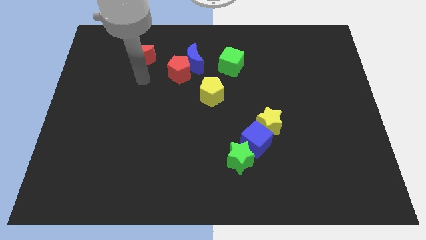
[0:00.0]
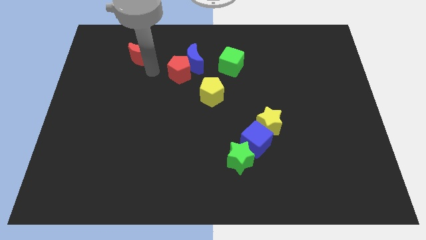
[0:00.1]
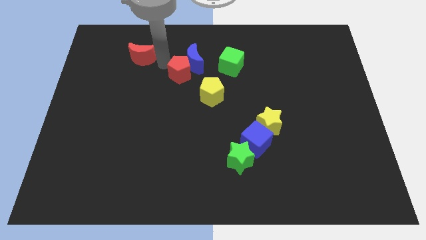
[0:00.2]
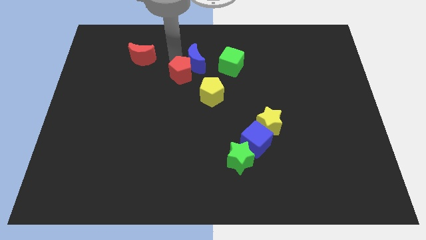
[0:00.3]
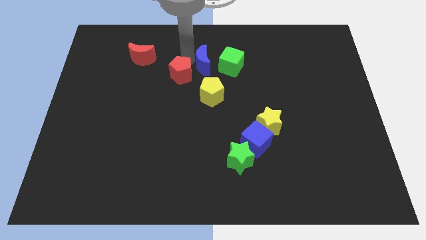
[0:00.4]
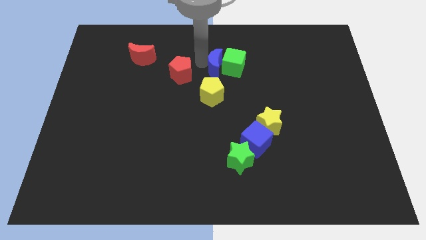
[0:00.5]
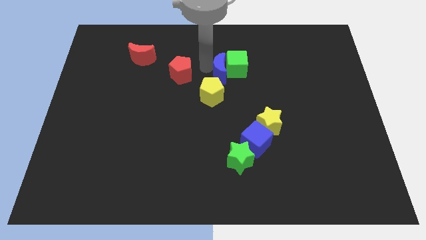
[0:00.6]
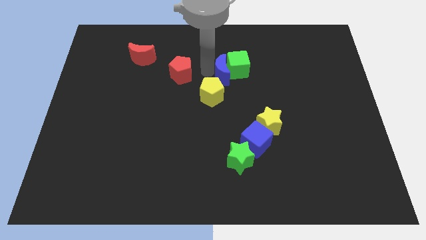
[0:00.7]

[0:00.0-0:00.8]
move the red pentagon away from the blue moon

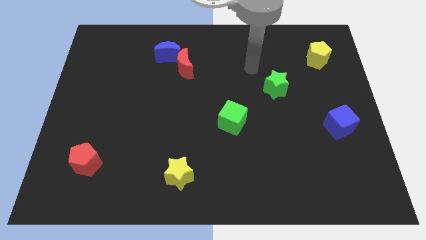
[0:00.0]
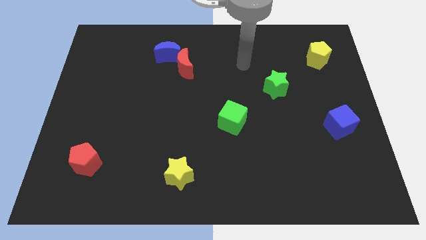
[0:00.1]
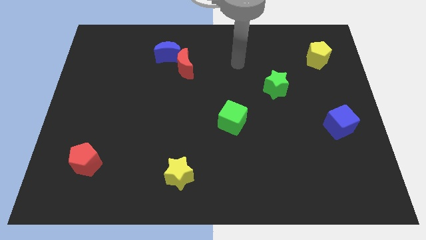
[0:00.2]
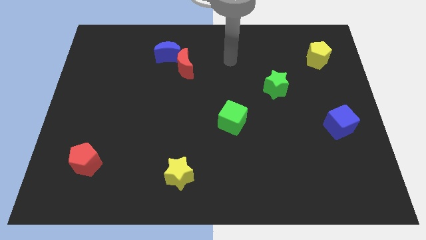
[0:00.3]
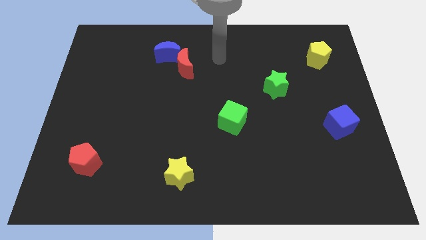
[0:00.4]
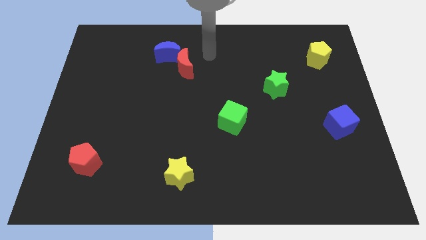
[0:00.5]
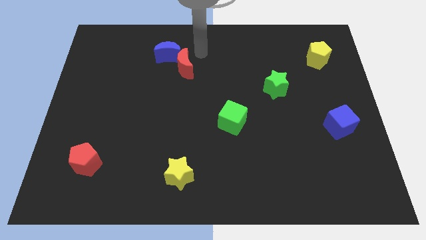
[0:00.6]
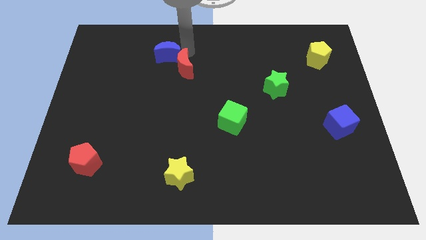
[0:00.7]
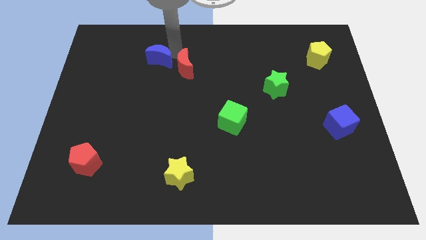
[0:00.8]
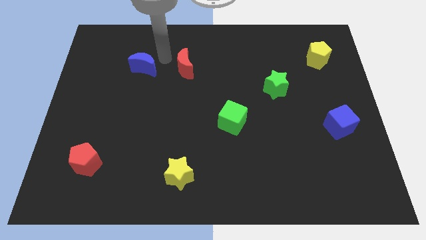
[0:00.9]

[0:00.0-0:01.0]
move the red moon away from the blue moon

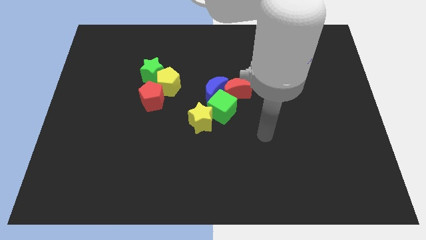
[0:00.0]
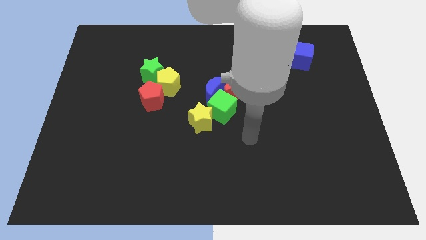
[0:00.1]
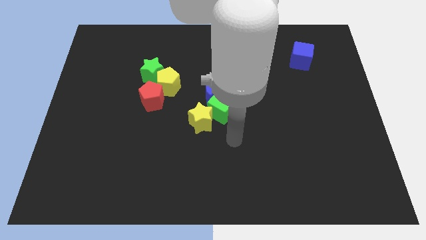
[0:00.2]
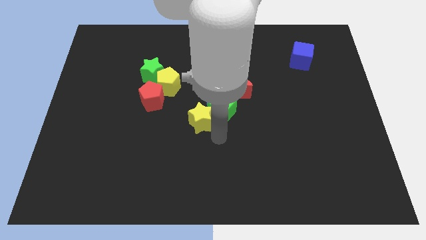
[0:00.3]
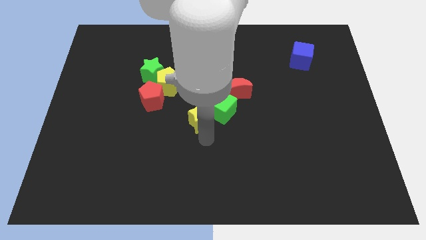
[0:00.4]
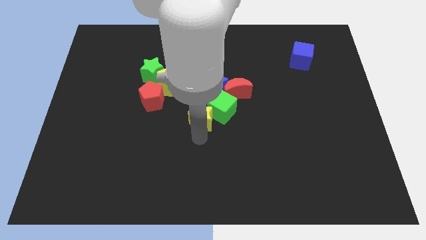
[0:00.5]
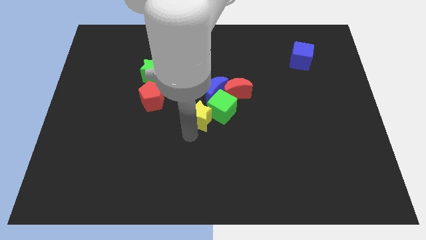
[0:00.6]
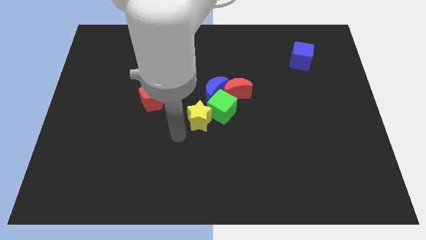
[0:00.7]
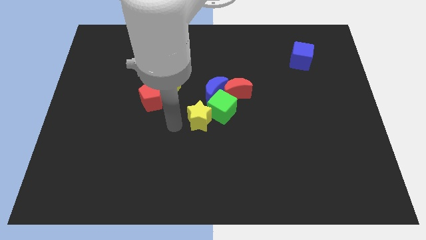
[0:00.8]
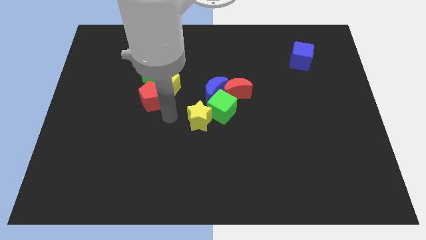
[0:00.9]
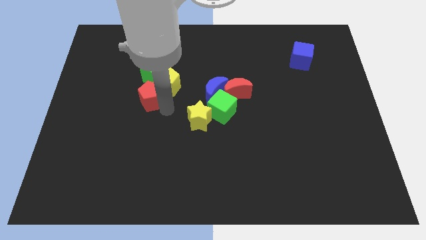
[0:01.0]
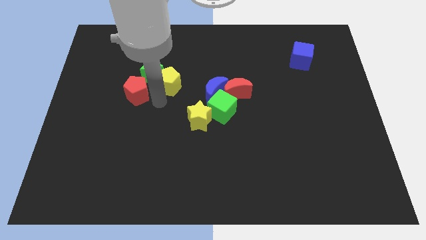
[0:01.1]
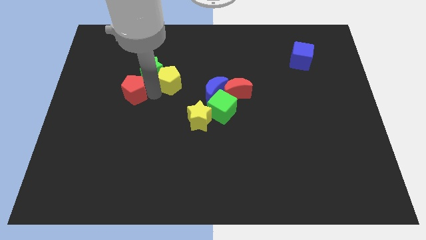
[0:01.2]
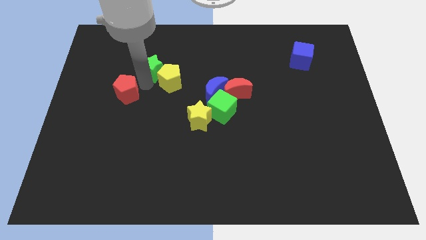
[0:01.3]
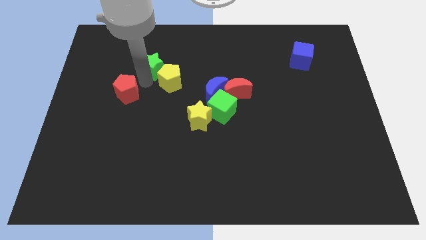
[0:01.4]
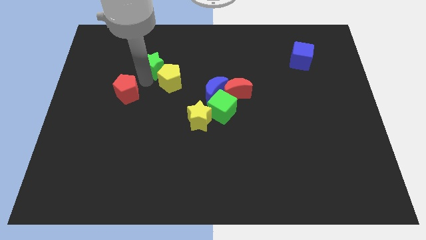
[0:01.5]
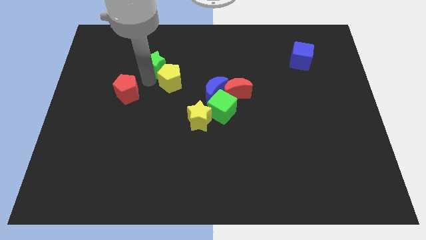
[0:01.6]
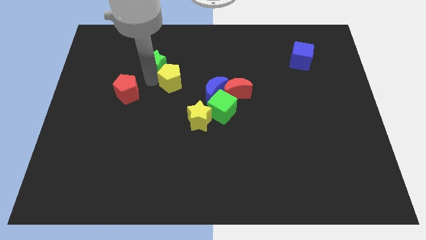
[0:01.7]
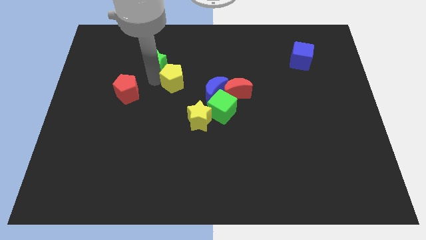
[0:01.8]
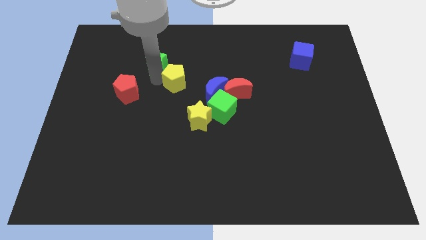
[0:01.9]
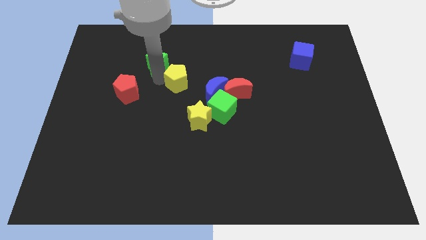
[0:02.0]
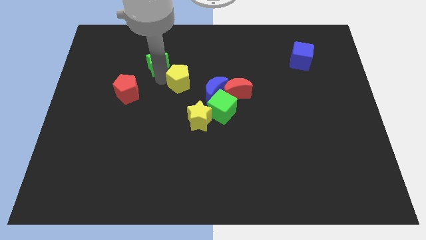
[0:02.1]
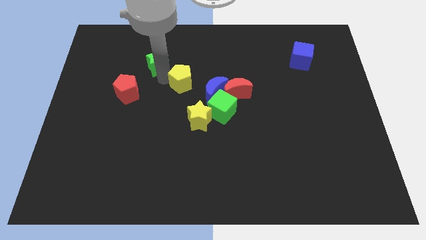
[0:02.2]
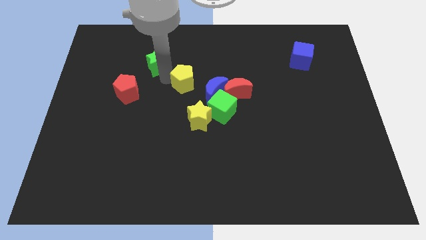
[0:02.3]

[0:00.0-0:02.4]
separate the yellow pentagon from the red pentagon and green star

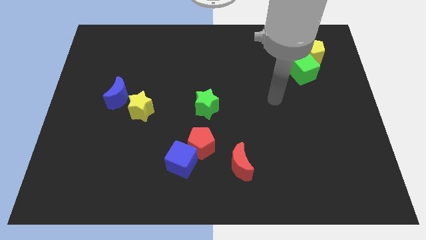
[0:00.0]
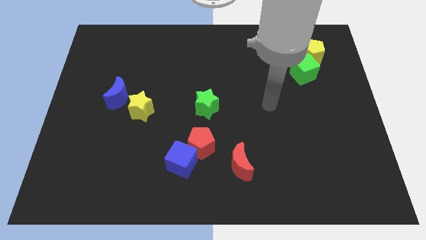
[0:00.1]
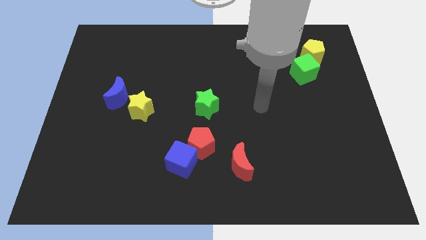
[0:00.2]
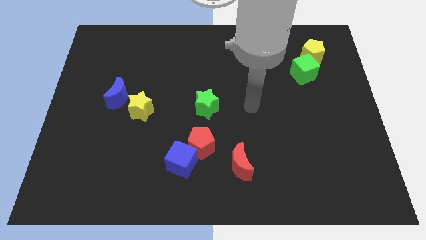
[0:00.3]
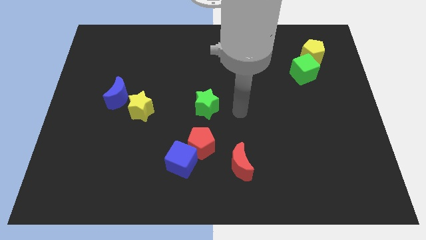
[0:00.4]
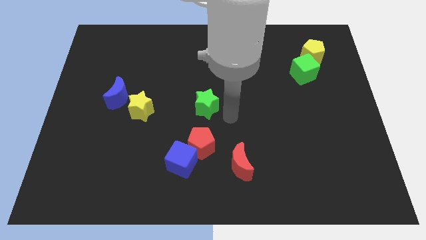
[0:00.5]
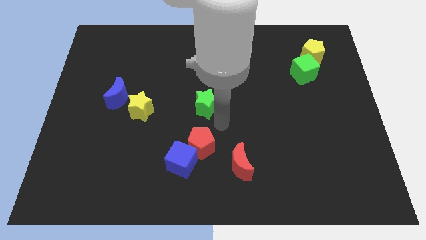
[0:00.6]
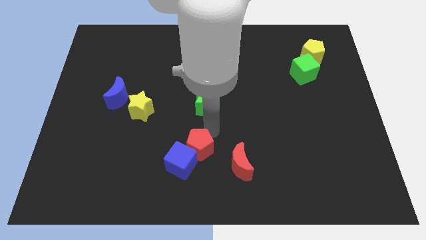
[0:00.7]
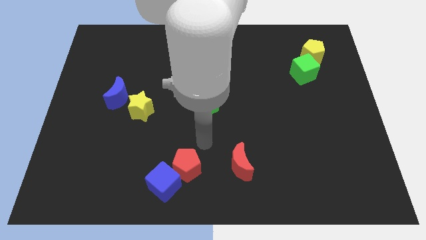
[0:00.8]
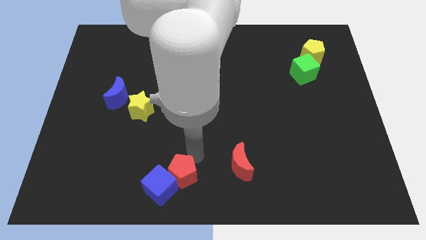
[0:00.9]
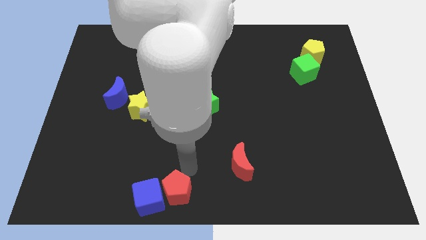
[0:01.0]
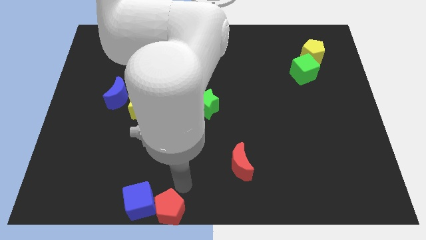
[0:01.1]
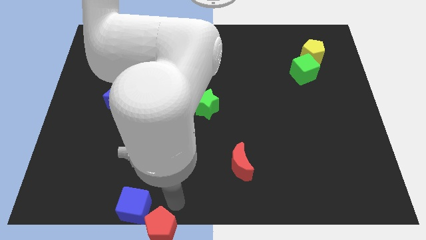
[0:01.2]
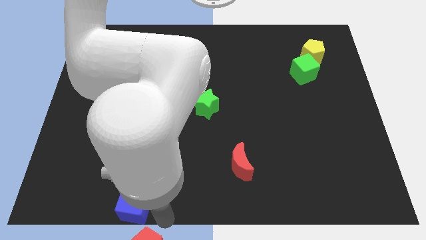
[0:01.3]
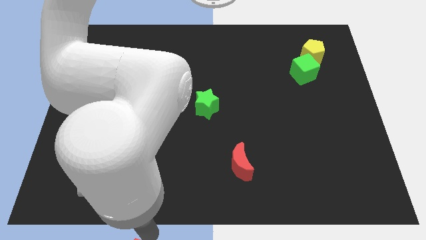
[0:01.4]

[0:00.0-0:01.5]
pull the blue cube apart from the red pentagon

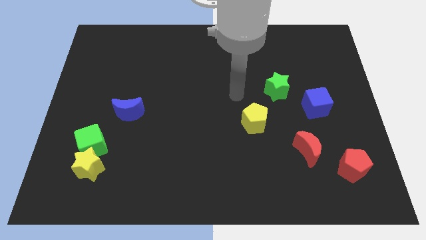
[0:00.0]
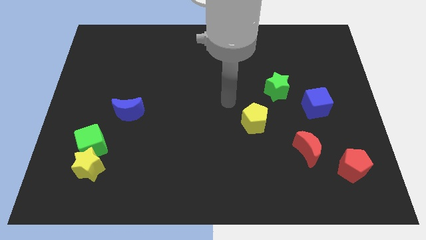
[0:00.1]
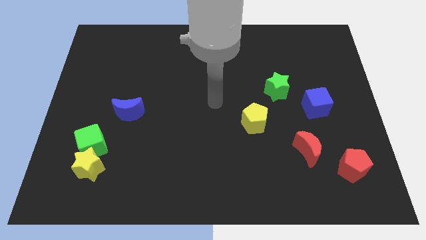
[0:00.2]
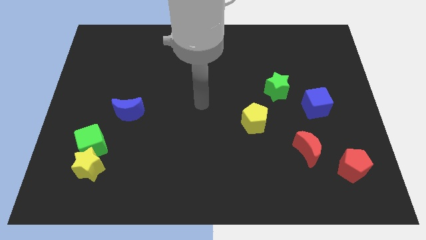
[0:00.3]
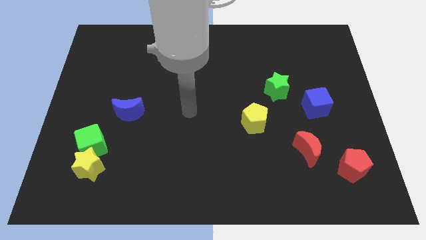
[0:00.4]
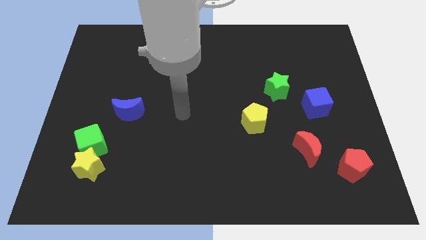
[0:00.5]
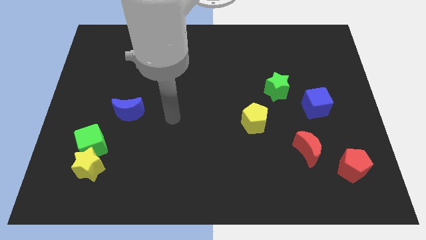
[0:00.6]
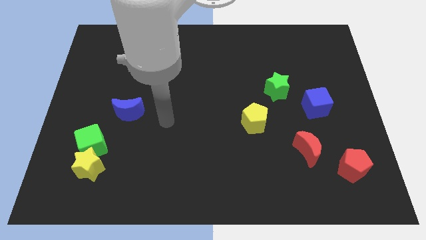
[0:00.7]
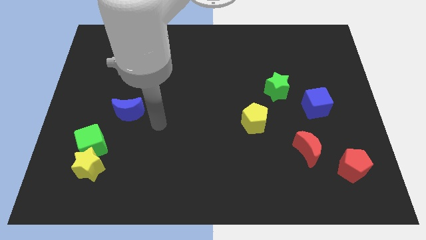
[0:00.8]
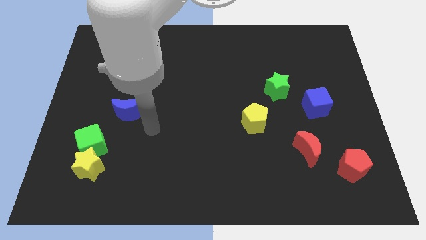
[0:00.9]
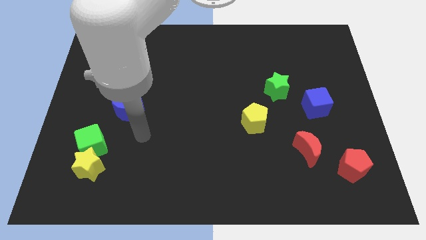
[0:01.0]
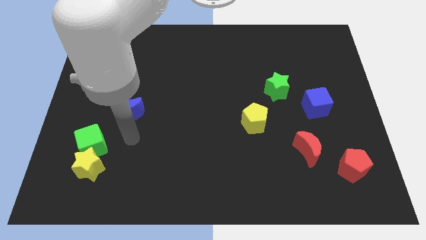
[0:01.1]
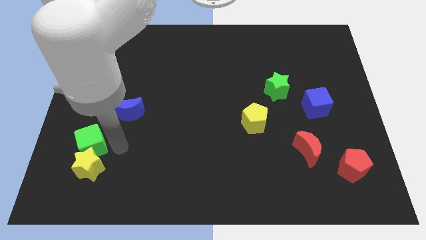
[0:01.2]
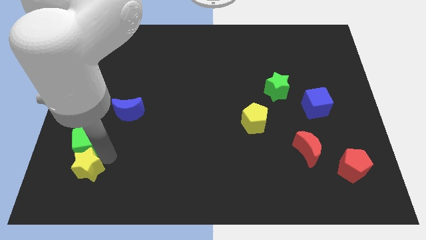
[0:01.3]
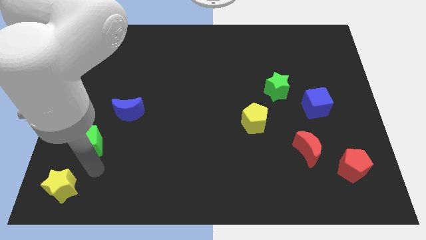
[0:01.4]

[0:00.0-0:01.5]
separate the green cube from the yellow star

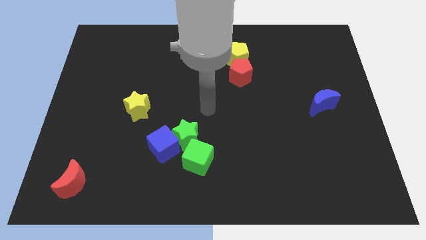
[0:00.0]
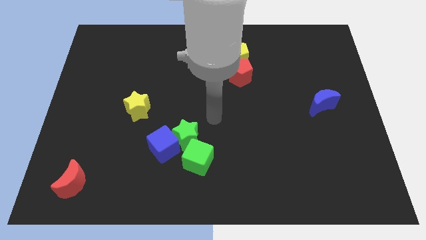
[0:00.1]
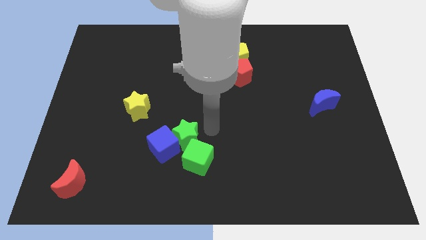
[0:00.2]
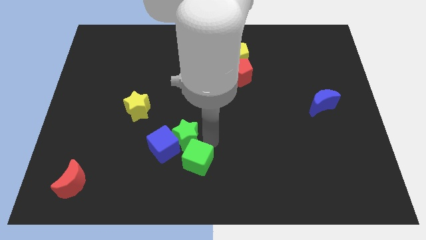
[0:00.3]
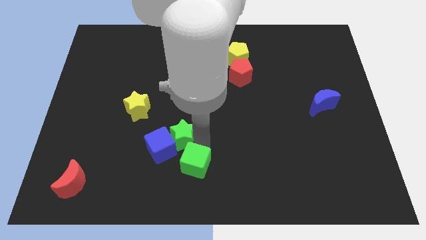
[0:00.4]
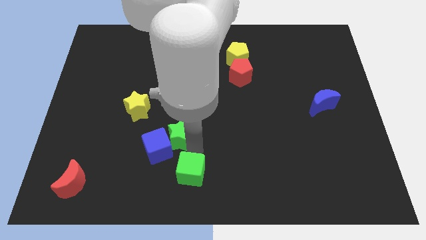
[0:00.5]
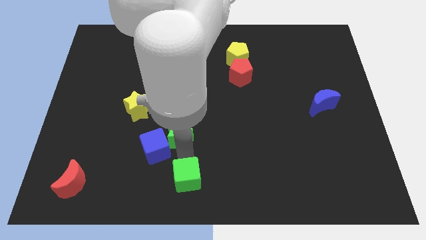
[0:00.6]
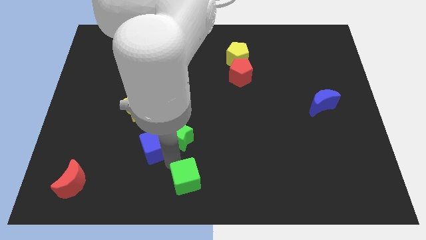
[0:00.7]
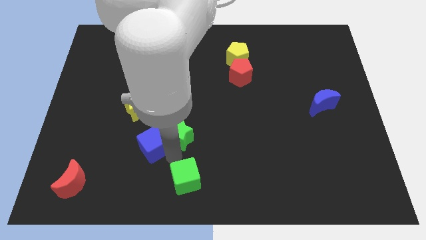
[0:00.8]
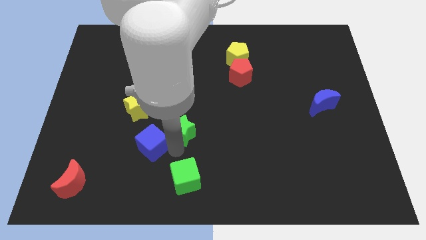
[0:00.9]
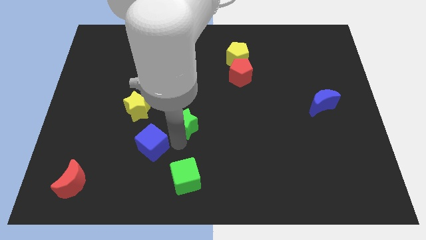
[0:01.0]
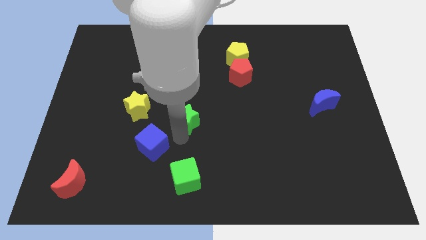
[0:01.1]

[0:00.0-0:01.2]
pull the green star apart from the blue cube and green cube

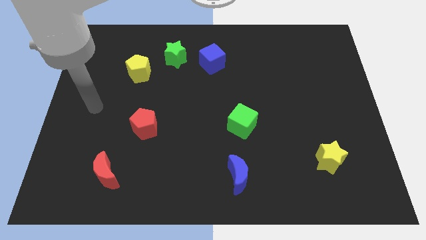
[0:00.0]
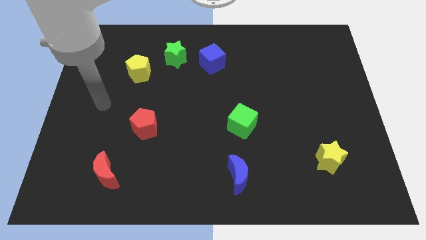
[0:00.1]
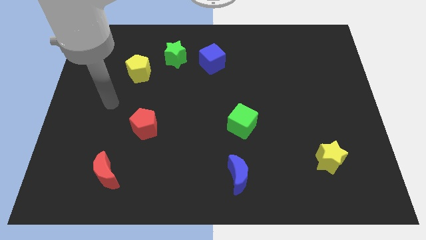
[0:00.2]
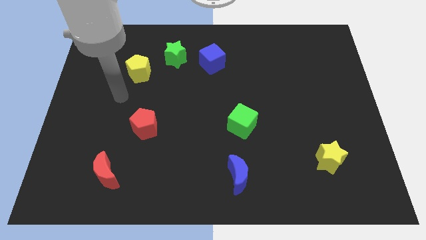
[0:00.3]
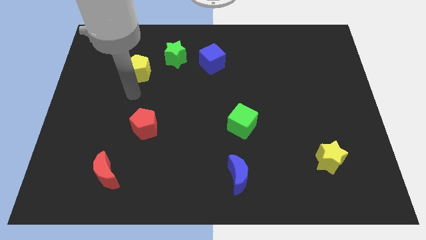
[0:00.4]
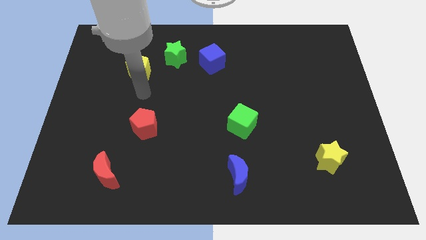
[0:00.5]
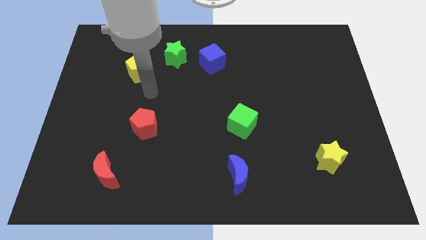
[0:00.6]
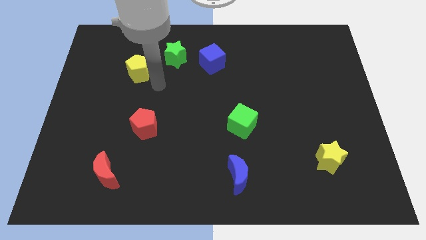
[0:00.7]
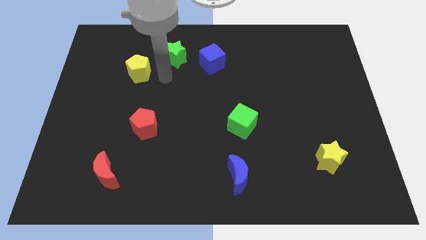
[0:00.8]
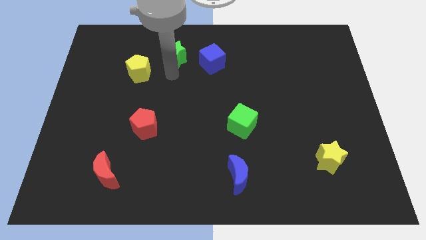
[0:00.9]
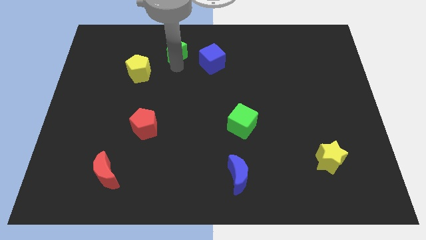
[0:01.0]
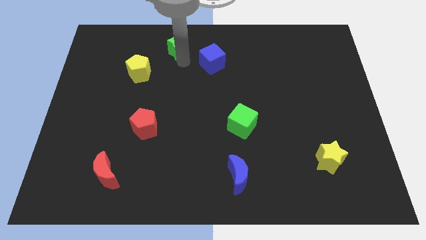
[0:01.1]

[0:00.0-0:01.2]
move the blue cube away from the green star
